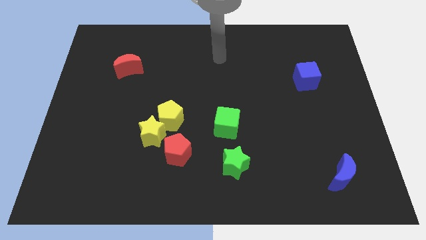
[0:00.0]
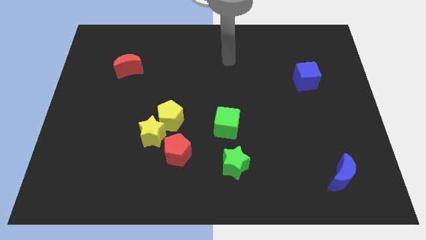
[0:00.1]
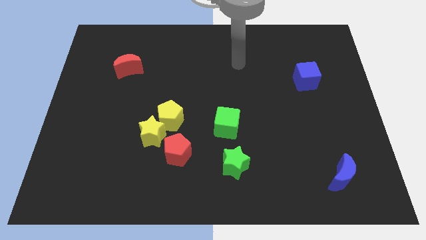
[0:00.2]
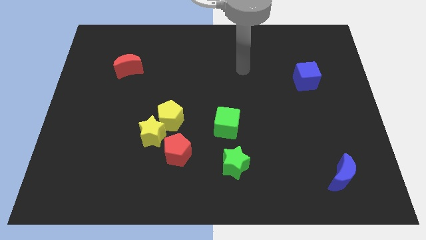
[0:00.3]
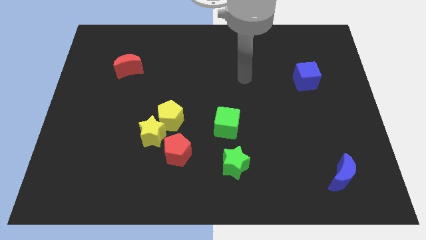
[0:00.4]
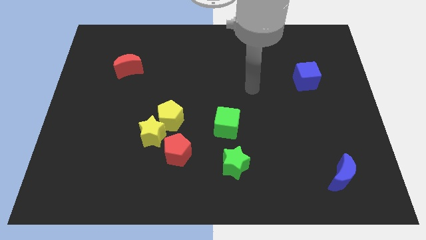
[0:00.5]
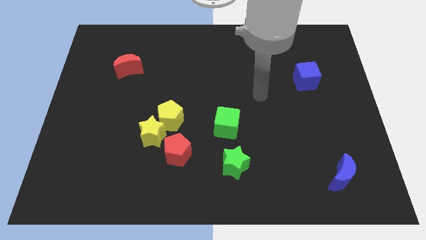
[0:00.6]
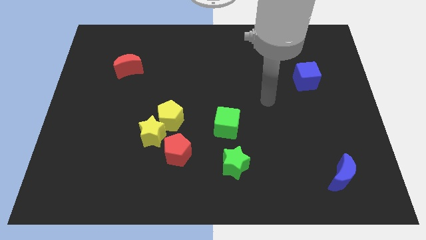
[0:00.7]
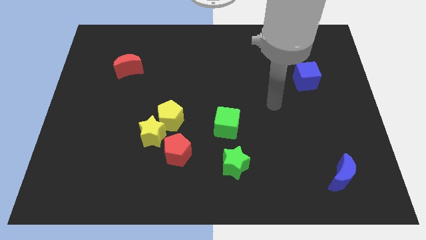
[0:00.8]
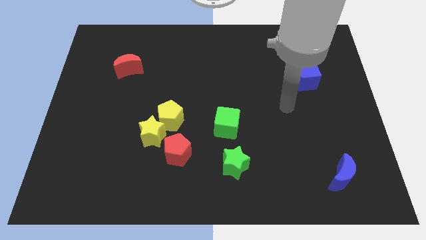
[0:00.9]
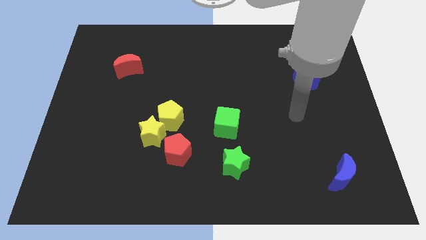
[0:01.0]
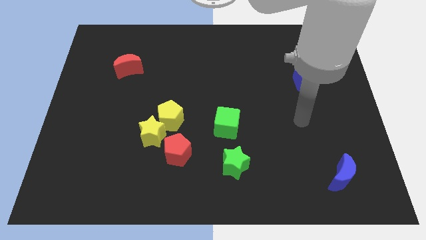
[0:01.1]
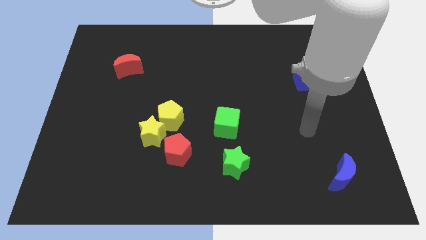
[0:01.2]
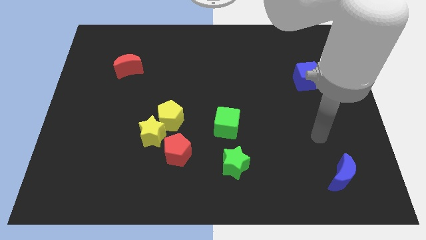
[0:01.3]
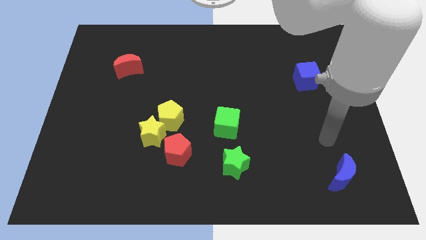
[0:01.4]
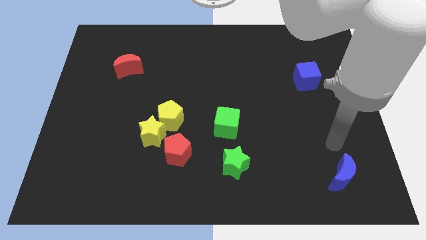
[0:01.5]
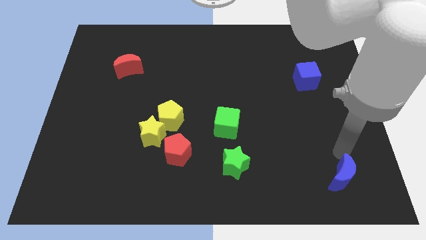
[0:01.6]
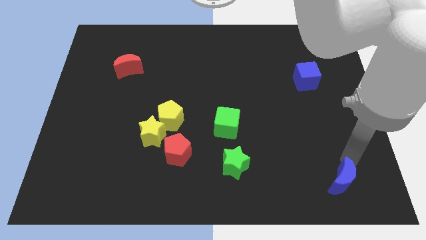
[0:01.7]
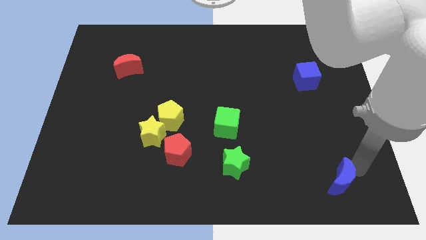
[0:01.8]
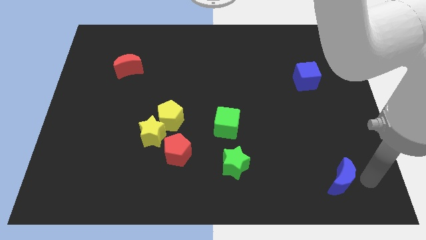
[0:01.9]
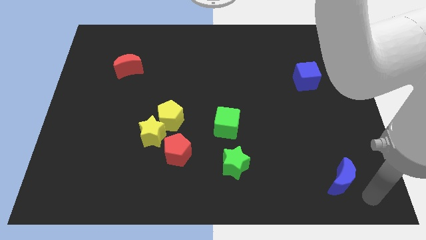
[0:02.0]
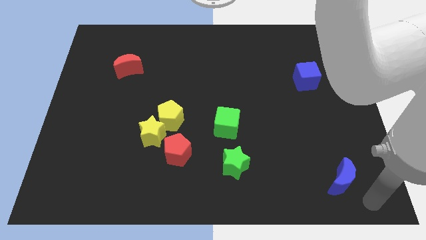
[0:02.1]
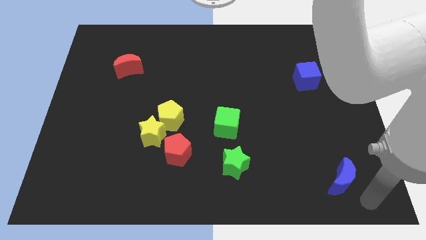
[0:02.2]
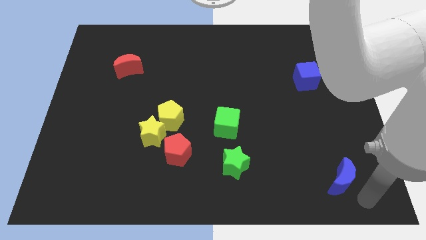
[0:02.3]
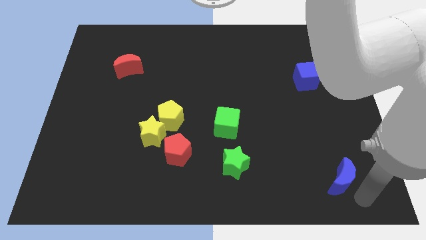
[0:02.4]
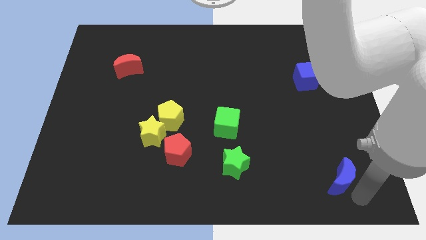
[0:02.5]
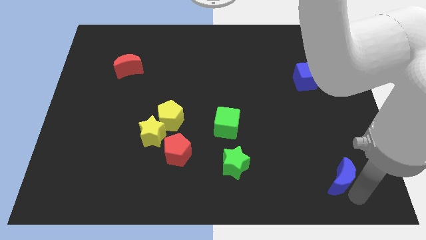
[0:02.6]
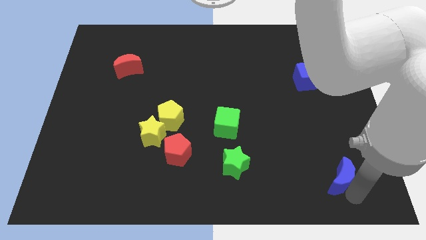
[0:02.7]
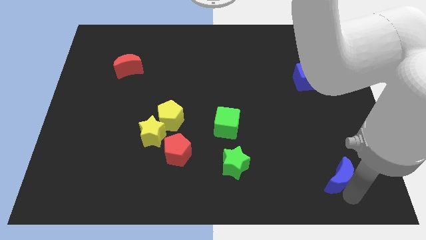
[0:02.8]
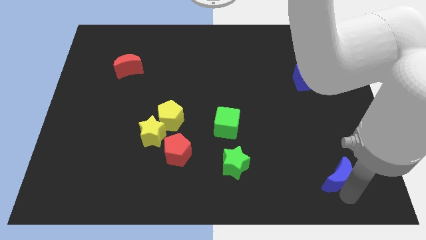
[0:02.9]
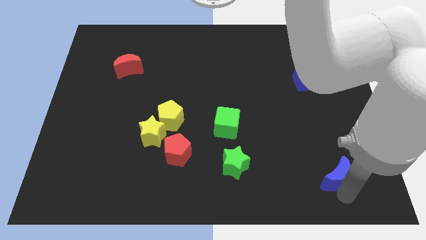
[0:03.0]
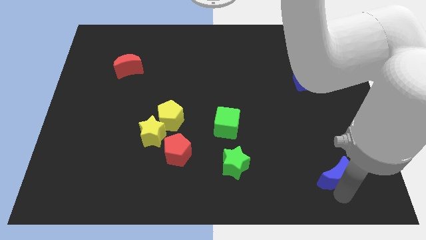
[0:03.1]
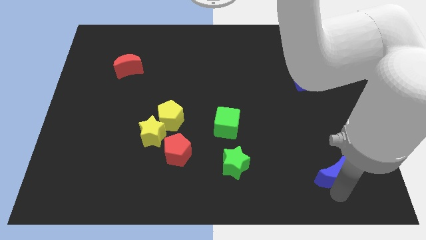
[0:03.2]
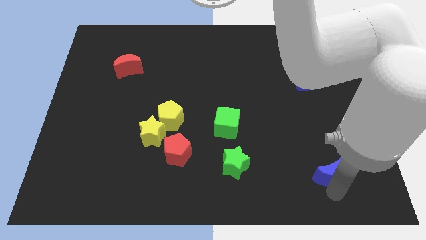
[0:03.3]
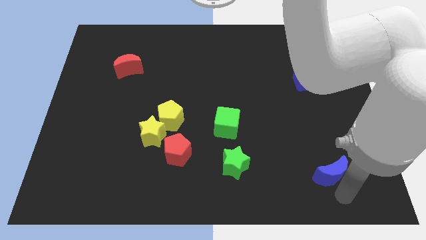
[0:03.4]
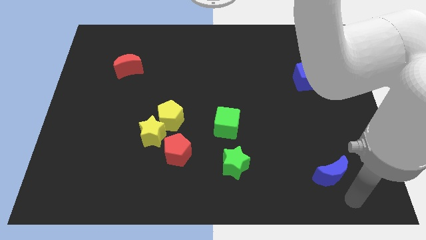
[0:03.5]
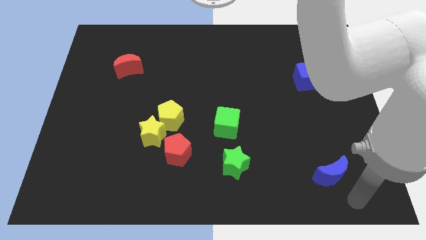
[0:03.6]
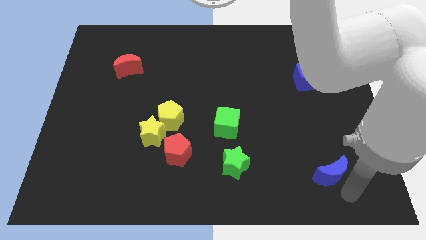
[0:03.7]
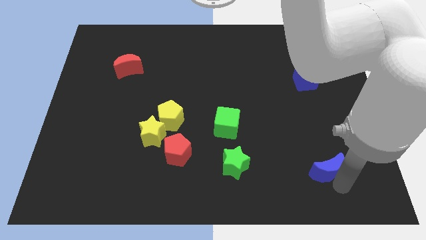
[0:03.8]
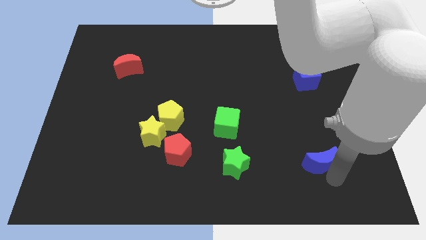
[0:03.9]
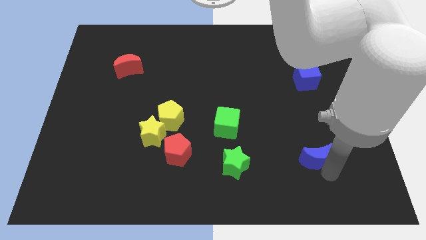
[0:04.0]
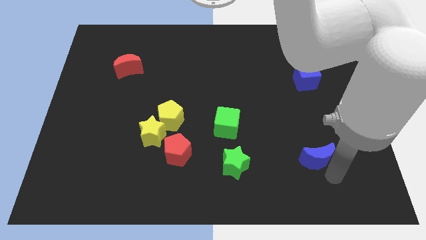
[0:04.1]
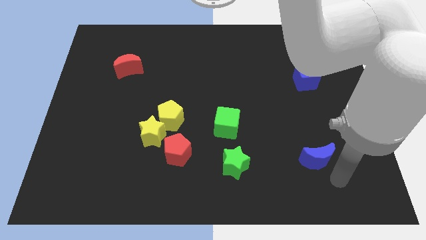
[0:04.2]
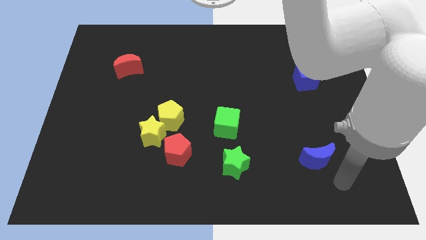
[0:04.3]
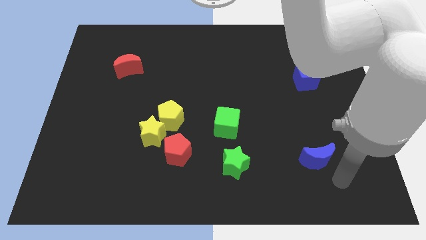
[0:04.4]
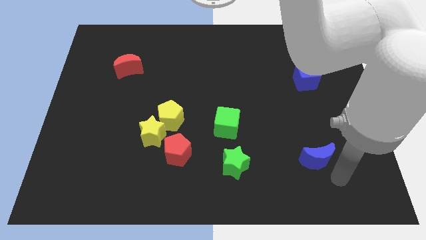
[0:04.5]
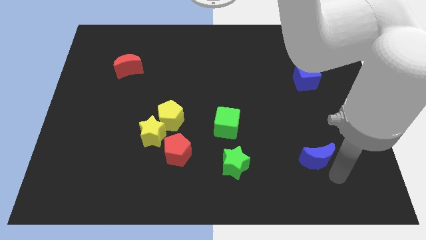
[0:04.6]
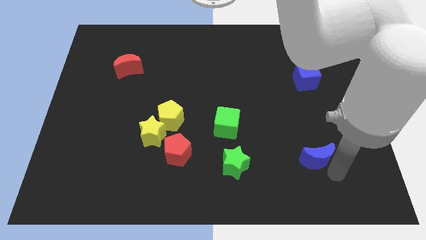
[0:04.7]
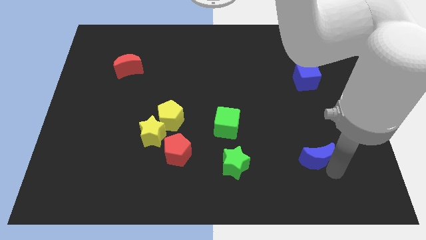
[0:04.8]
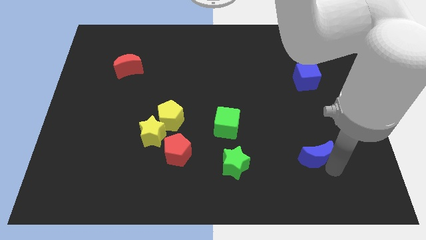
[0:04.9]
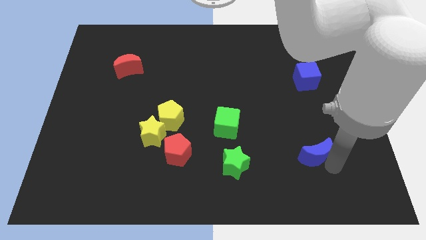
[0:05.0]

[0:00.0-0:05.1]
slightly push the blue moon up and then to the left

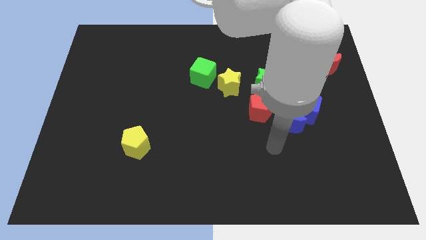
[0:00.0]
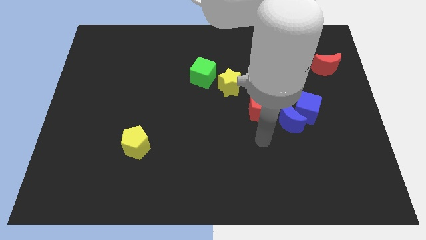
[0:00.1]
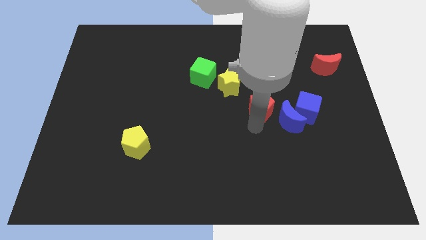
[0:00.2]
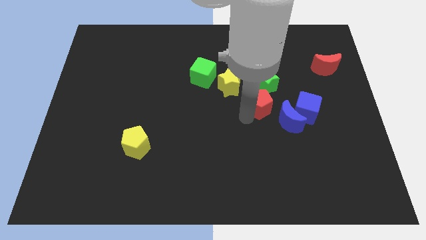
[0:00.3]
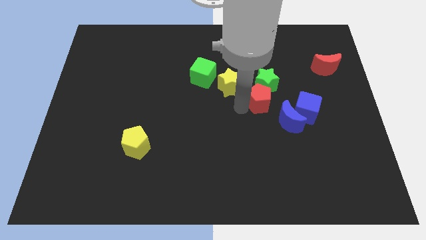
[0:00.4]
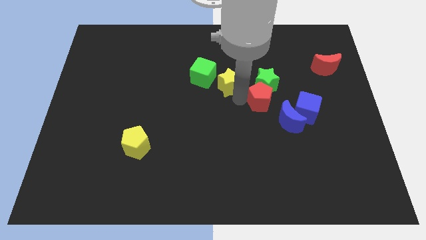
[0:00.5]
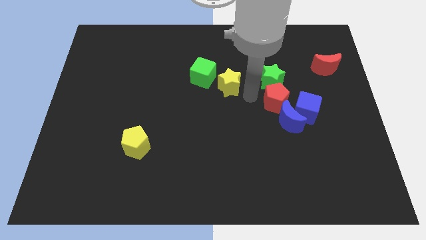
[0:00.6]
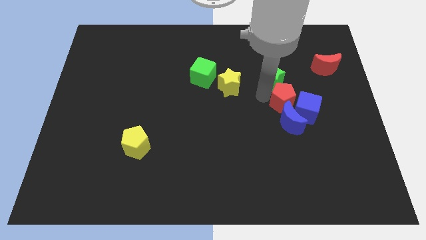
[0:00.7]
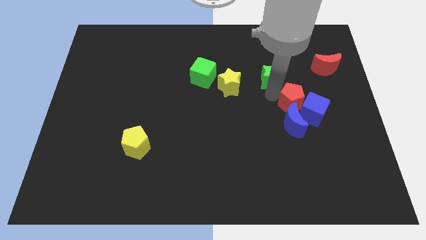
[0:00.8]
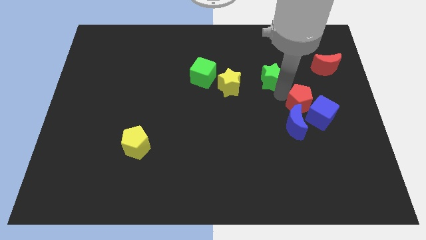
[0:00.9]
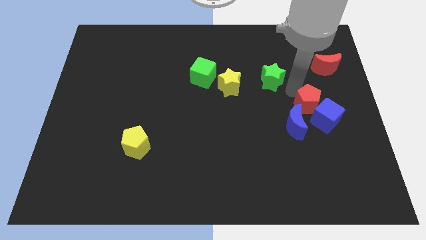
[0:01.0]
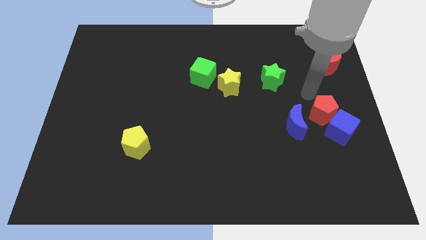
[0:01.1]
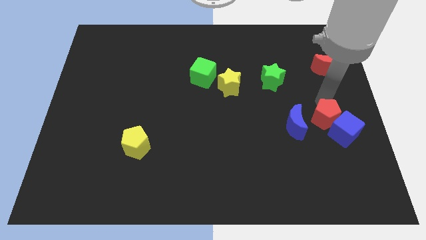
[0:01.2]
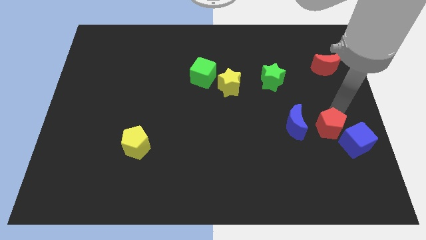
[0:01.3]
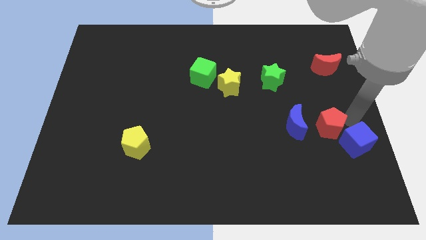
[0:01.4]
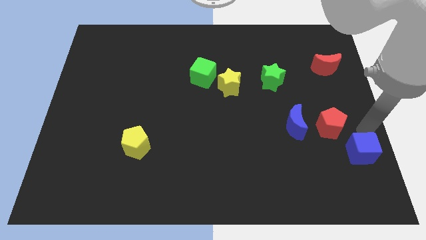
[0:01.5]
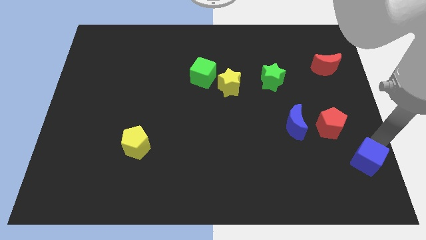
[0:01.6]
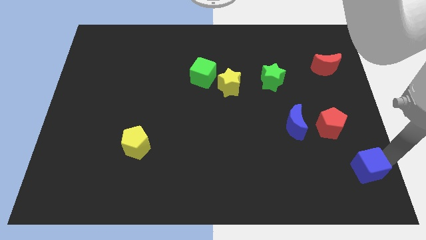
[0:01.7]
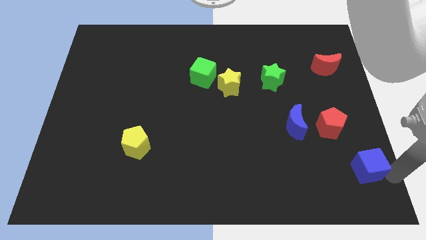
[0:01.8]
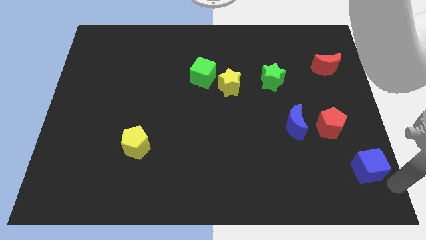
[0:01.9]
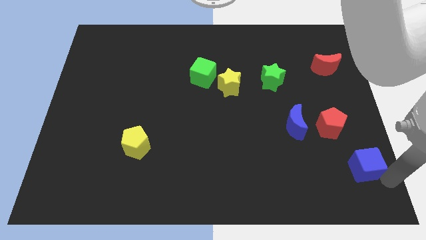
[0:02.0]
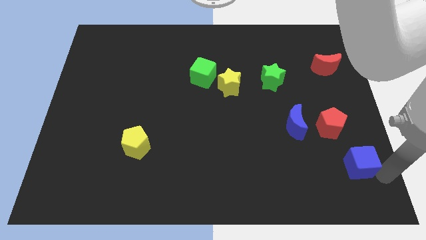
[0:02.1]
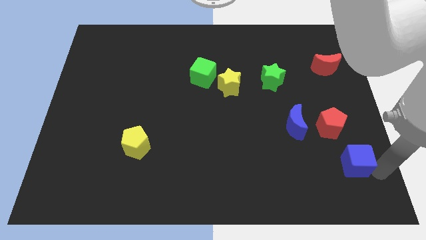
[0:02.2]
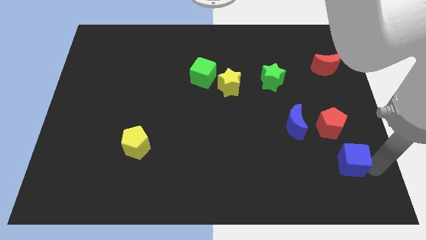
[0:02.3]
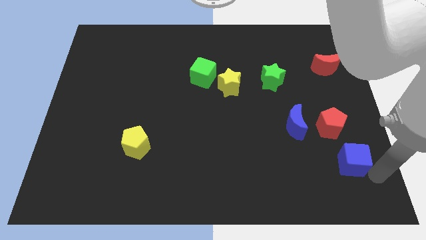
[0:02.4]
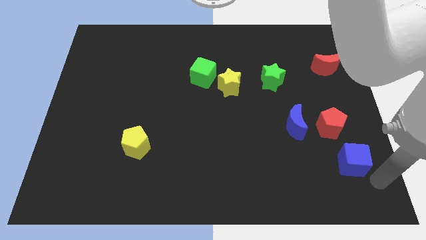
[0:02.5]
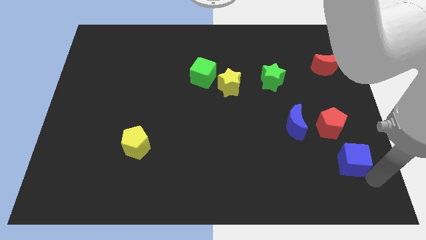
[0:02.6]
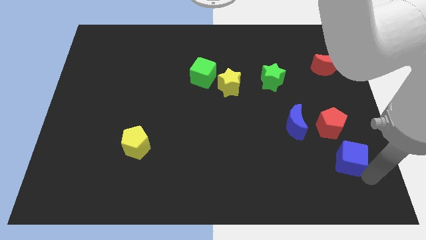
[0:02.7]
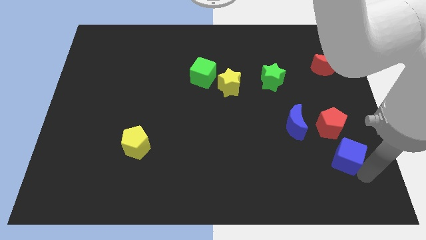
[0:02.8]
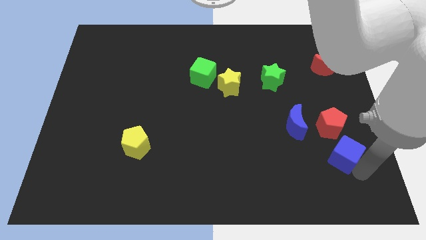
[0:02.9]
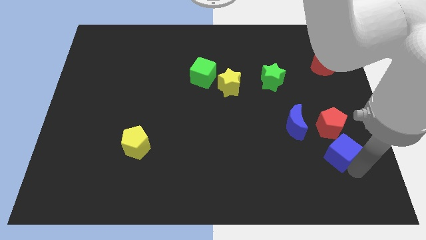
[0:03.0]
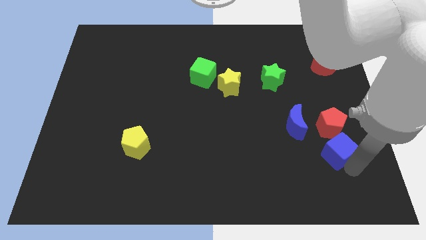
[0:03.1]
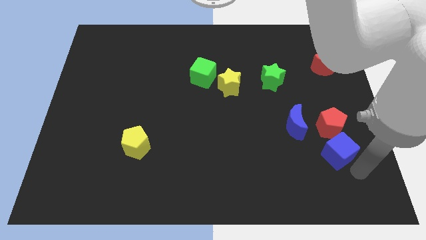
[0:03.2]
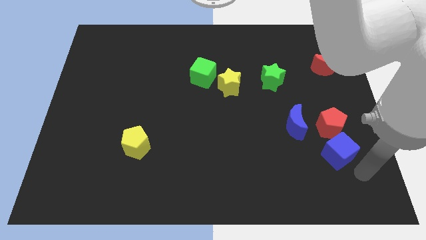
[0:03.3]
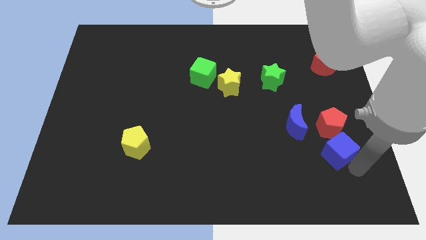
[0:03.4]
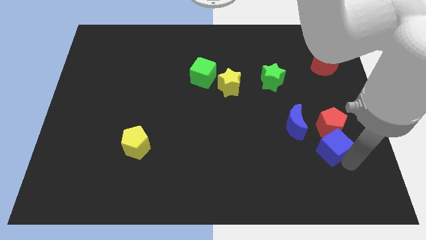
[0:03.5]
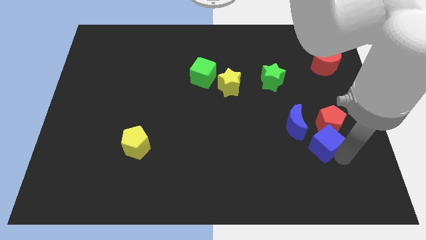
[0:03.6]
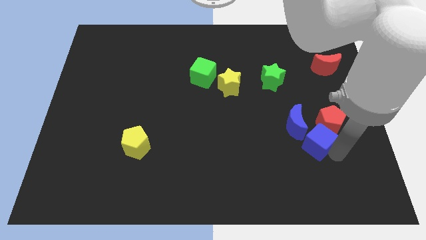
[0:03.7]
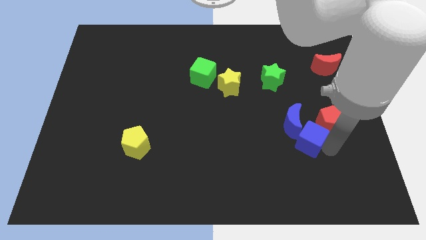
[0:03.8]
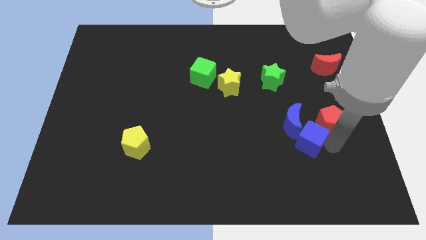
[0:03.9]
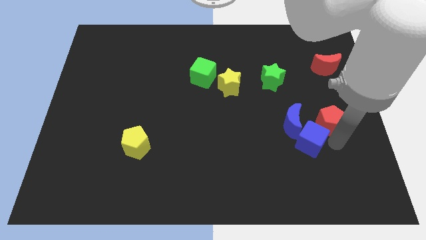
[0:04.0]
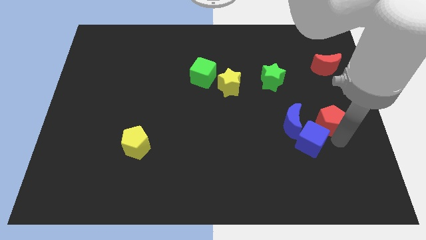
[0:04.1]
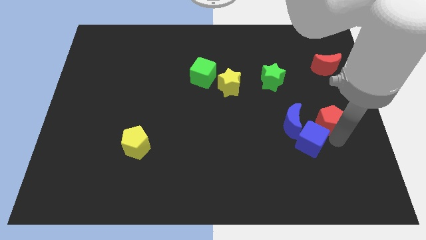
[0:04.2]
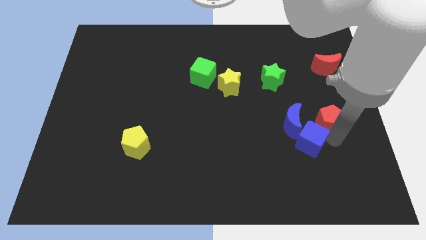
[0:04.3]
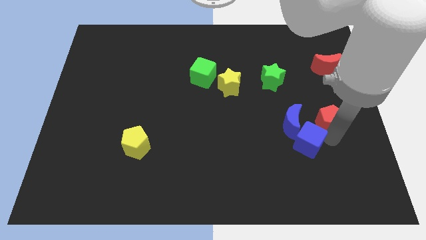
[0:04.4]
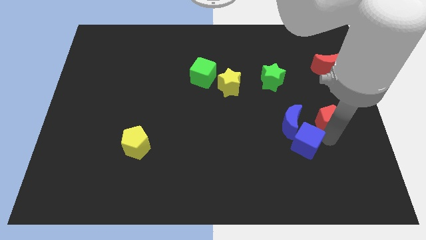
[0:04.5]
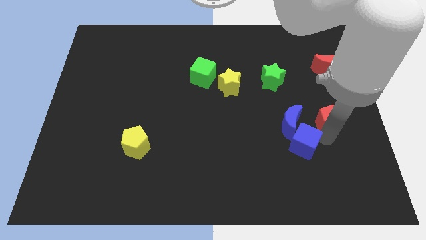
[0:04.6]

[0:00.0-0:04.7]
move the blue cube down and left slightly
